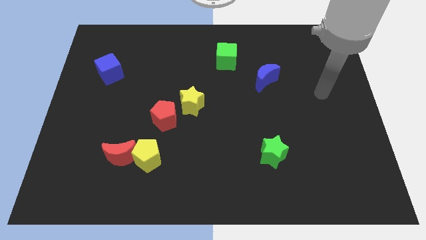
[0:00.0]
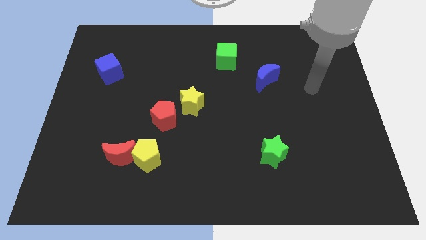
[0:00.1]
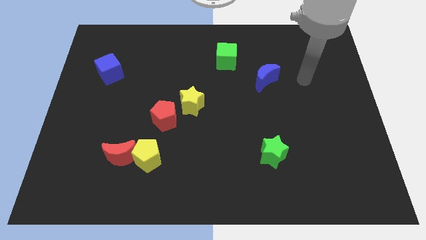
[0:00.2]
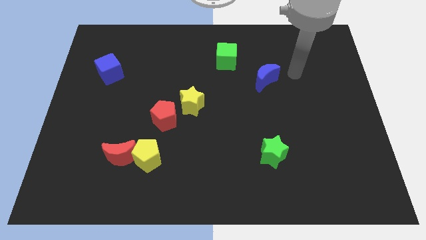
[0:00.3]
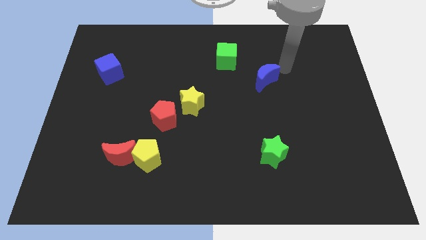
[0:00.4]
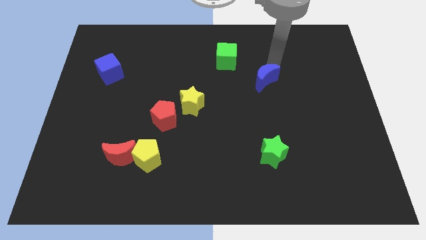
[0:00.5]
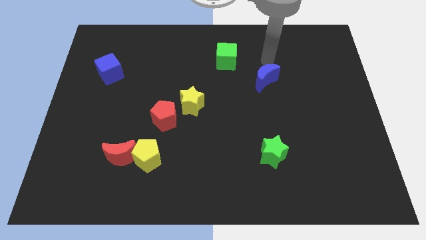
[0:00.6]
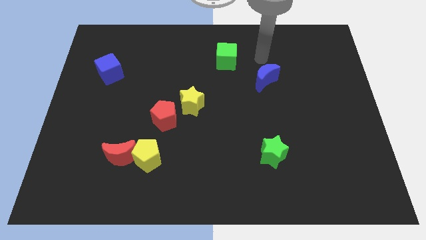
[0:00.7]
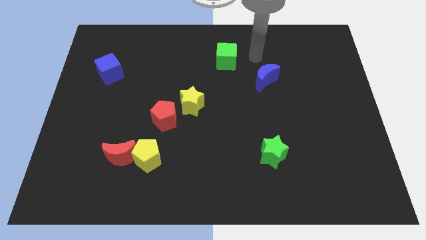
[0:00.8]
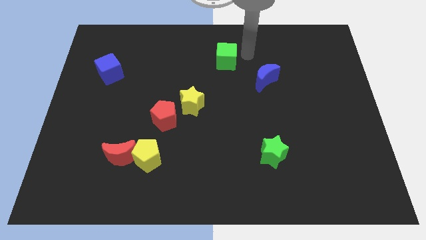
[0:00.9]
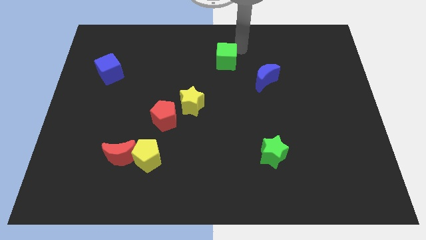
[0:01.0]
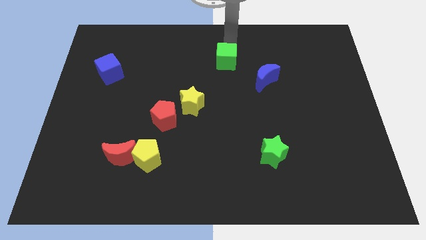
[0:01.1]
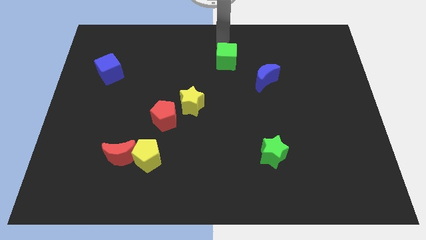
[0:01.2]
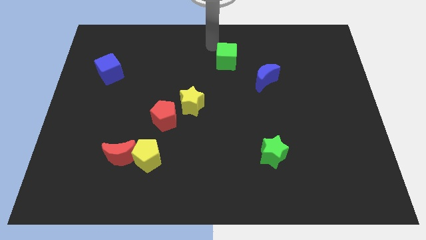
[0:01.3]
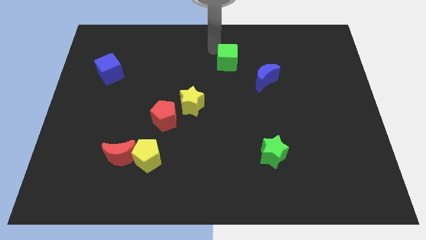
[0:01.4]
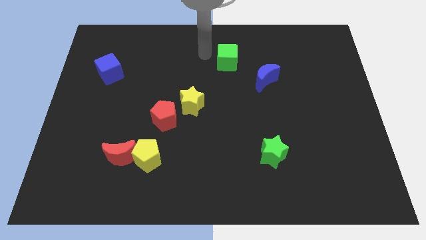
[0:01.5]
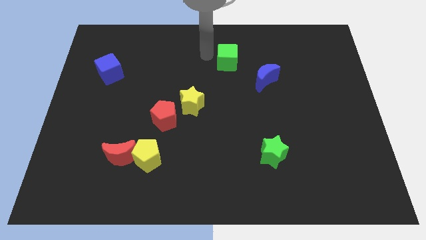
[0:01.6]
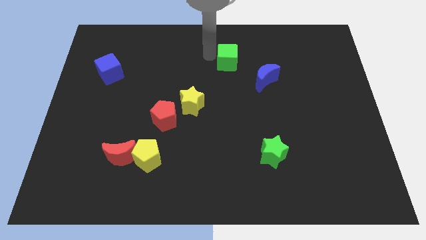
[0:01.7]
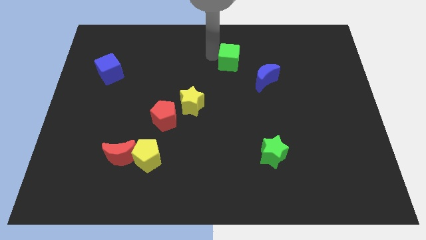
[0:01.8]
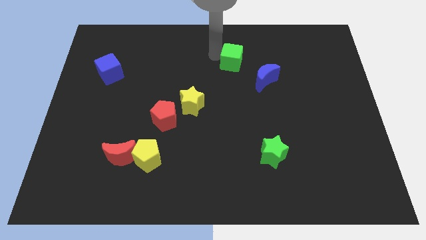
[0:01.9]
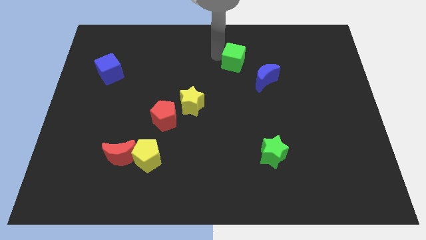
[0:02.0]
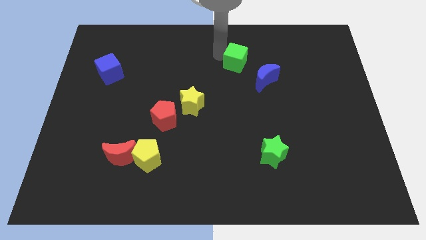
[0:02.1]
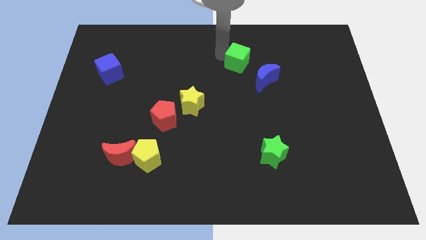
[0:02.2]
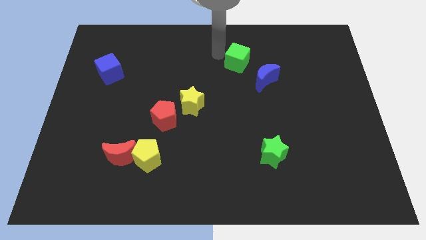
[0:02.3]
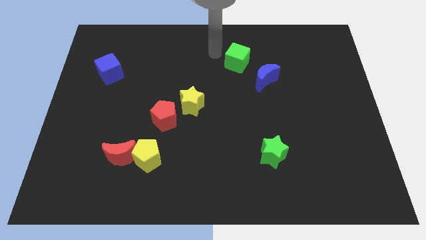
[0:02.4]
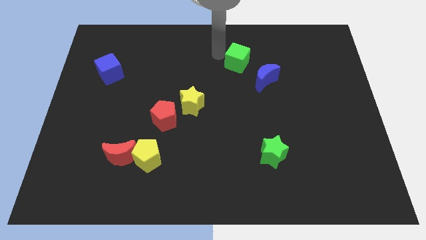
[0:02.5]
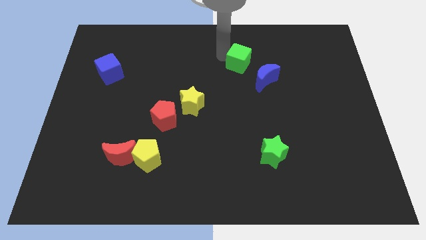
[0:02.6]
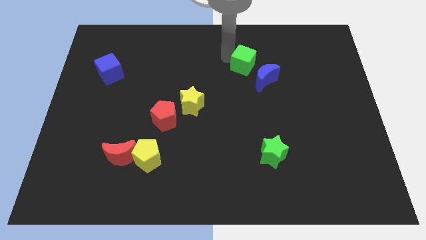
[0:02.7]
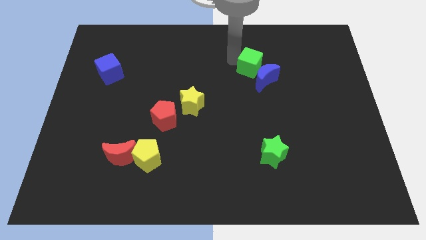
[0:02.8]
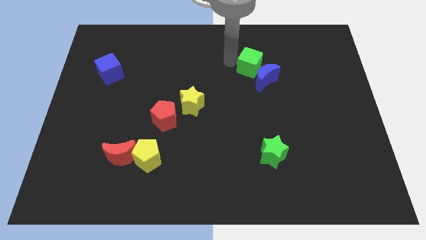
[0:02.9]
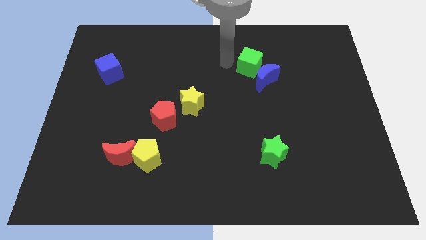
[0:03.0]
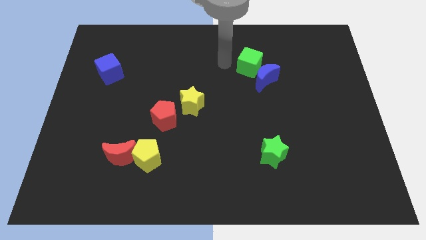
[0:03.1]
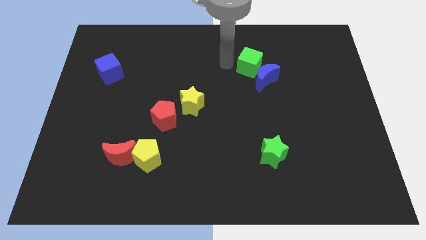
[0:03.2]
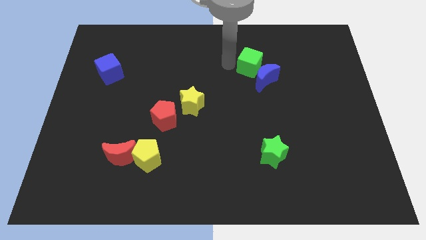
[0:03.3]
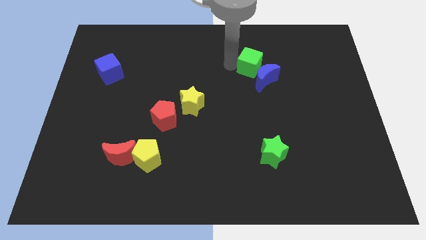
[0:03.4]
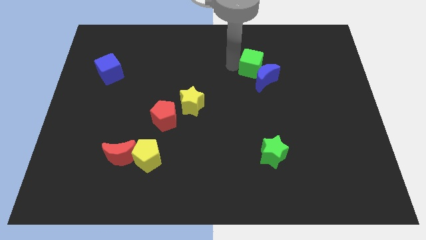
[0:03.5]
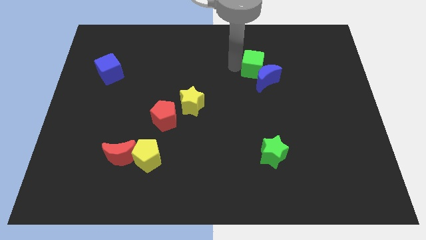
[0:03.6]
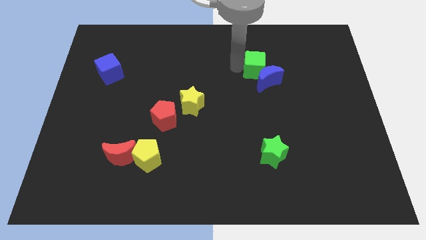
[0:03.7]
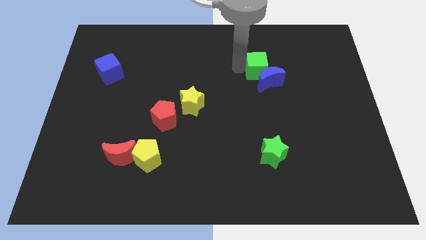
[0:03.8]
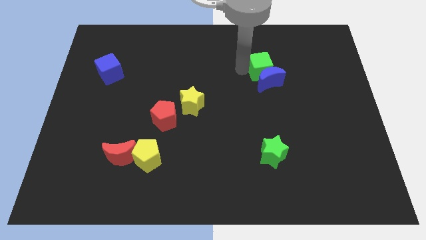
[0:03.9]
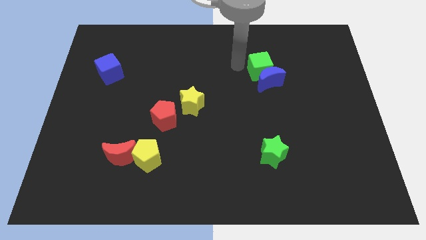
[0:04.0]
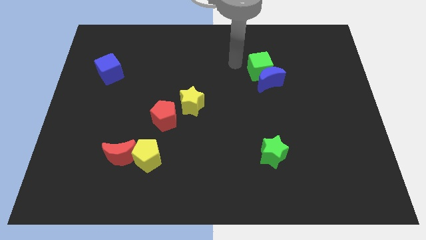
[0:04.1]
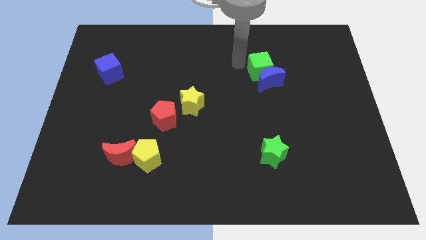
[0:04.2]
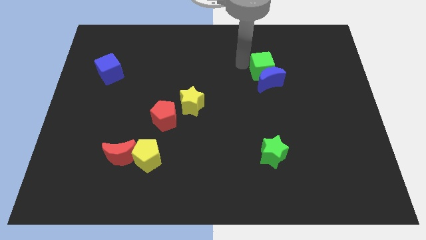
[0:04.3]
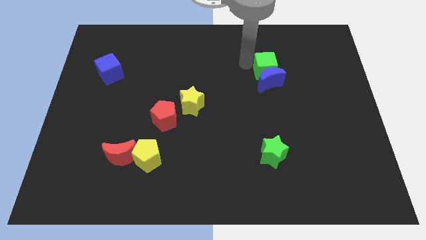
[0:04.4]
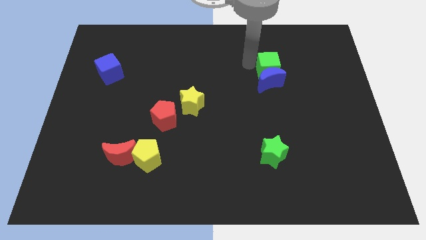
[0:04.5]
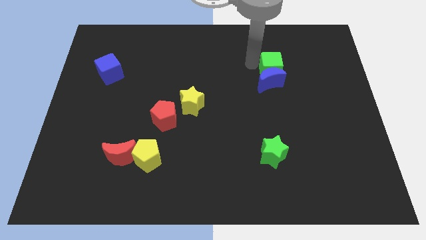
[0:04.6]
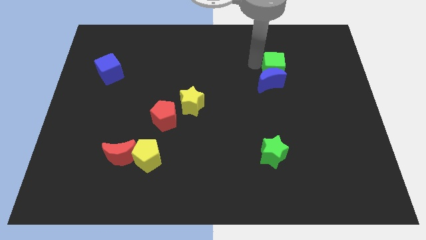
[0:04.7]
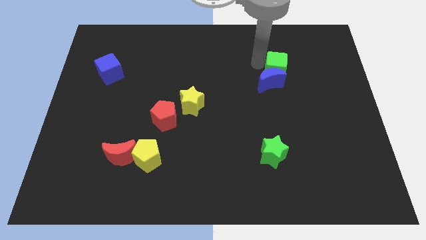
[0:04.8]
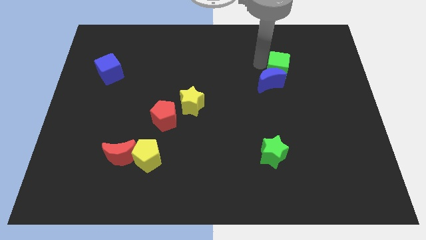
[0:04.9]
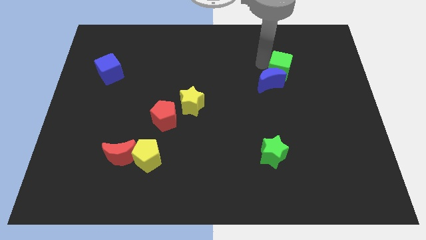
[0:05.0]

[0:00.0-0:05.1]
move the green cube just right of the blue moon

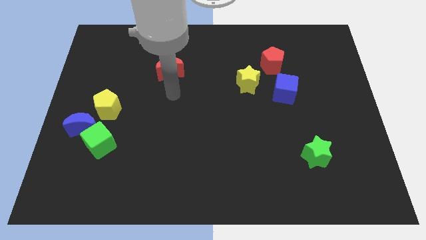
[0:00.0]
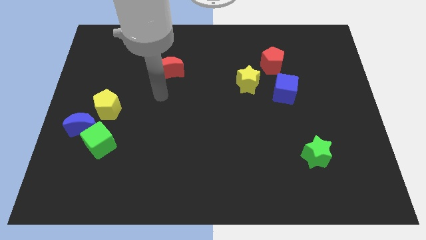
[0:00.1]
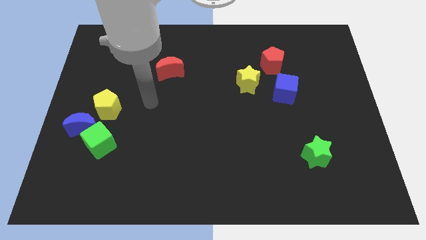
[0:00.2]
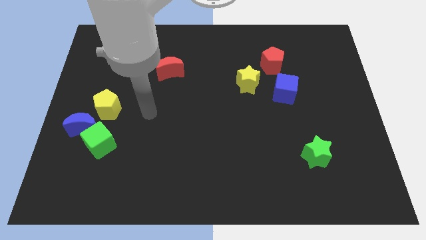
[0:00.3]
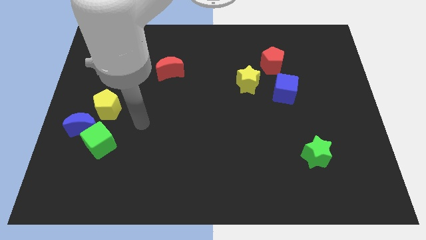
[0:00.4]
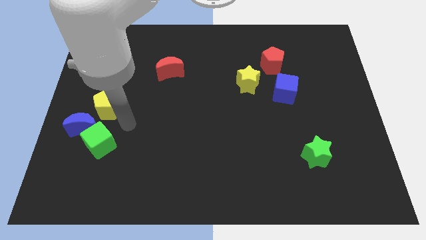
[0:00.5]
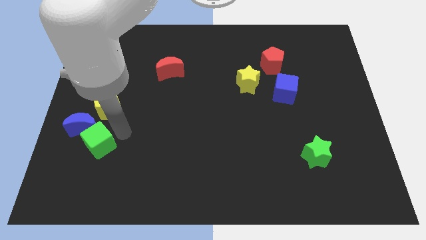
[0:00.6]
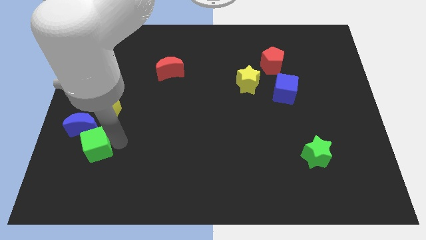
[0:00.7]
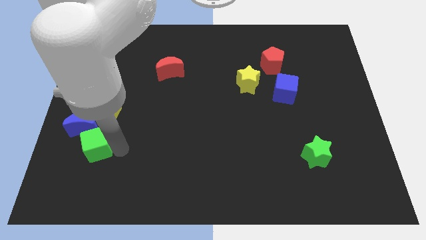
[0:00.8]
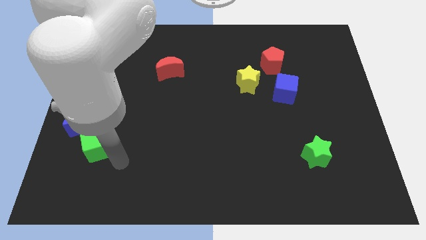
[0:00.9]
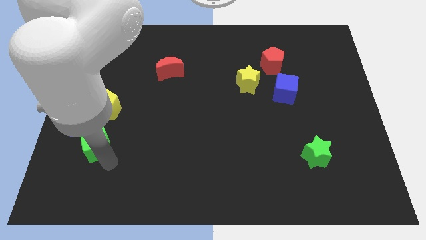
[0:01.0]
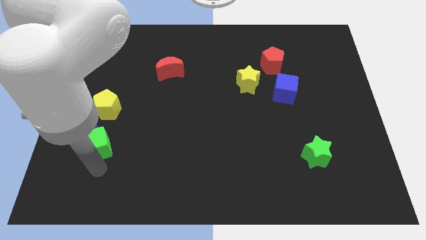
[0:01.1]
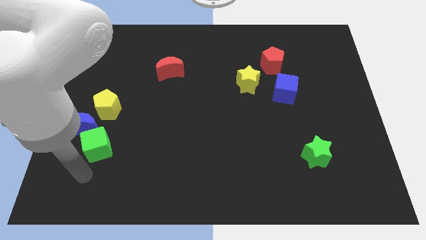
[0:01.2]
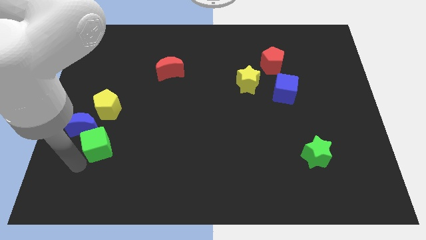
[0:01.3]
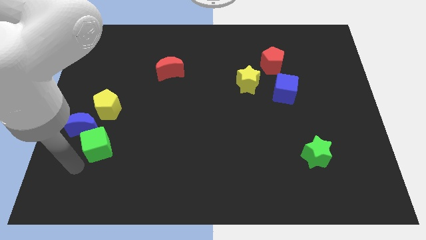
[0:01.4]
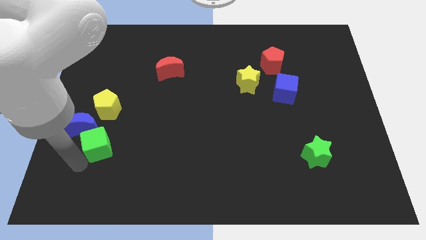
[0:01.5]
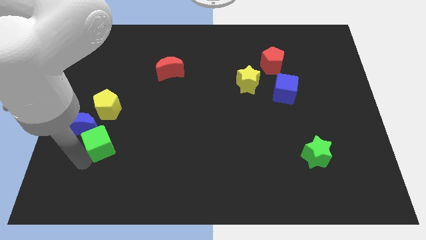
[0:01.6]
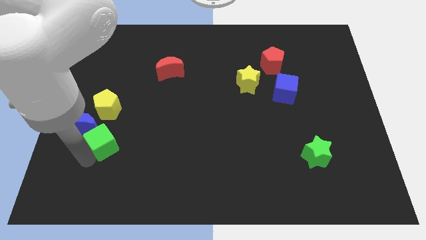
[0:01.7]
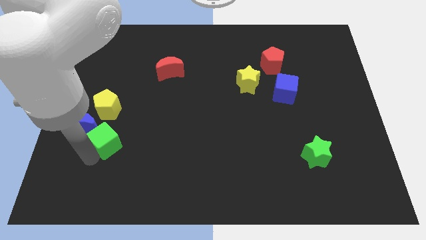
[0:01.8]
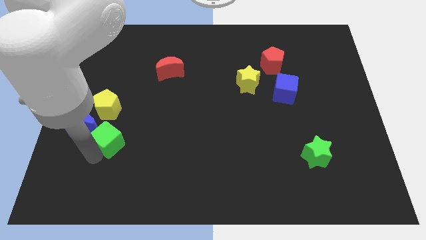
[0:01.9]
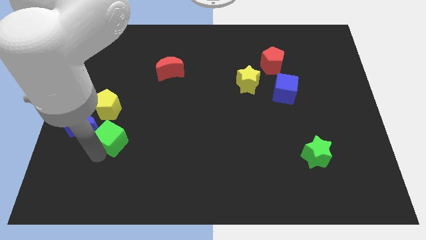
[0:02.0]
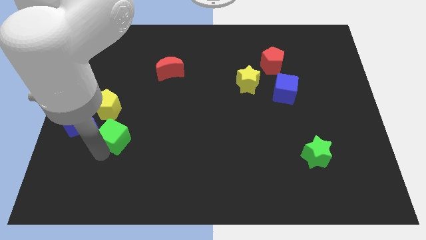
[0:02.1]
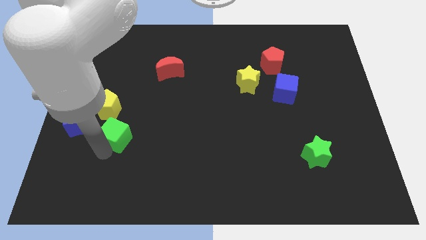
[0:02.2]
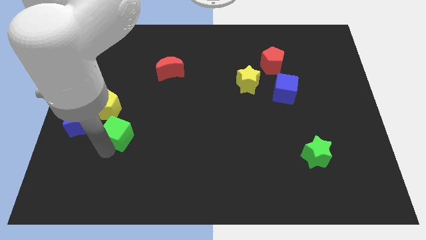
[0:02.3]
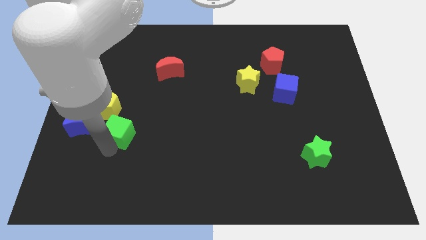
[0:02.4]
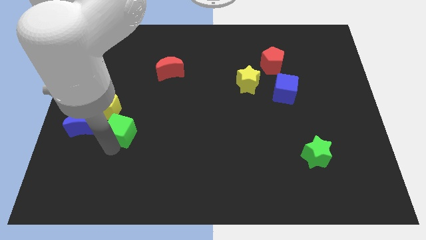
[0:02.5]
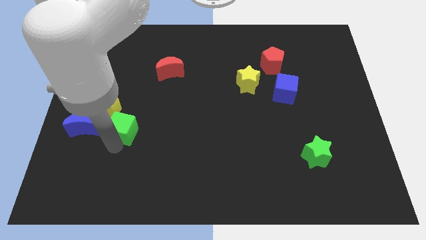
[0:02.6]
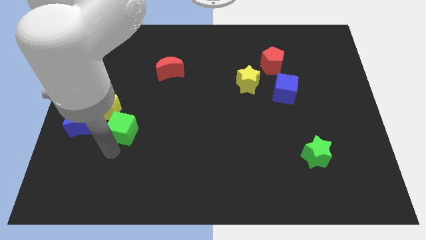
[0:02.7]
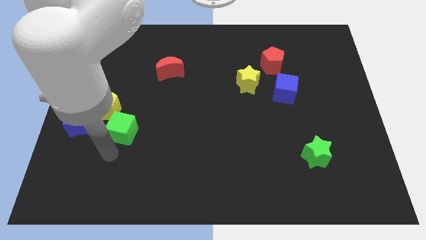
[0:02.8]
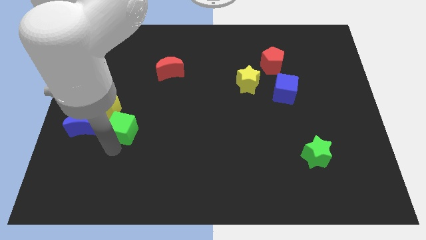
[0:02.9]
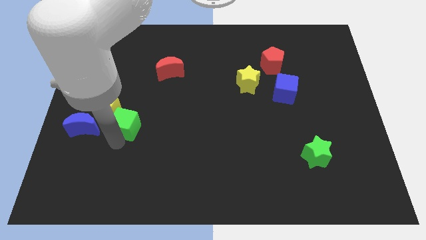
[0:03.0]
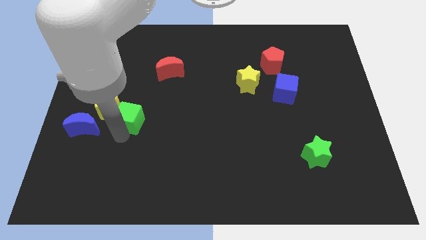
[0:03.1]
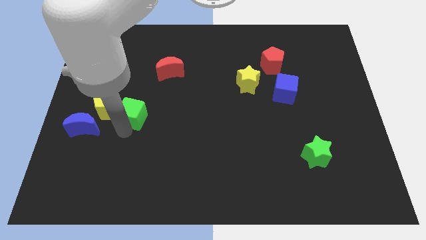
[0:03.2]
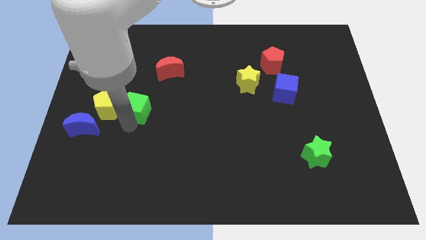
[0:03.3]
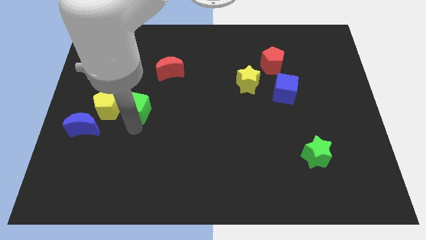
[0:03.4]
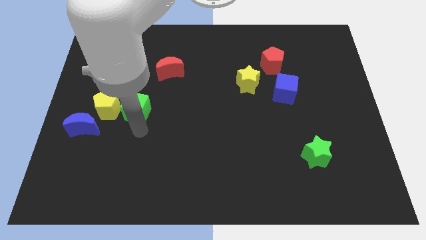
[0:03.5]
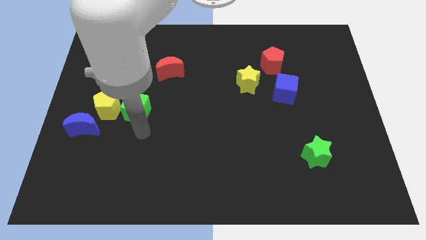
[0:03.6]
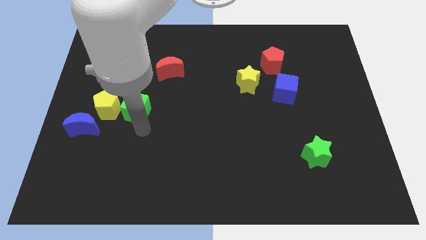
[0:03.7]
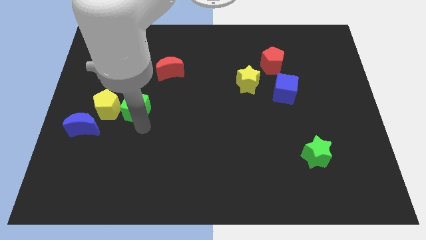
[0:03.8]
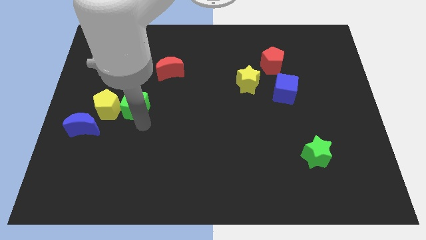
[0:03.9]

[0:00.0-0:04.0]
put the green cube to the top right side of the yellow pentagon
